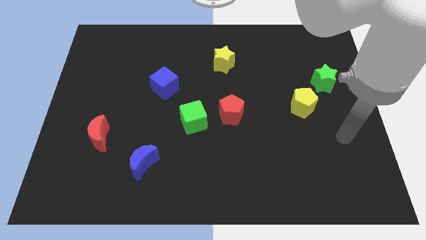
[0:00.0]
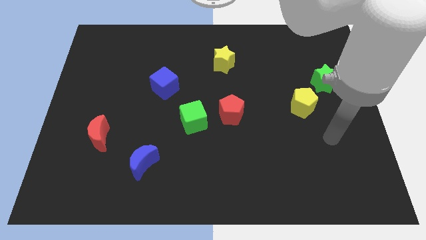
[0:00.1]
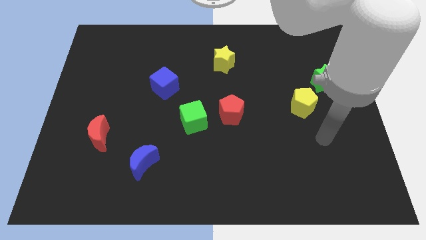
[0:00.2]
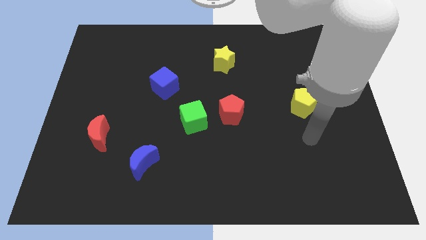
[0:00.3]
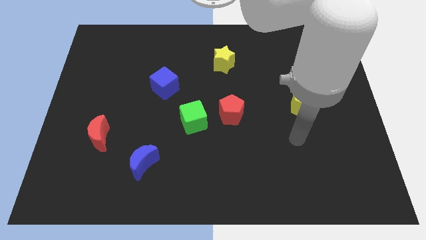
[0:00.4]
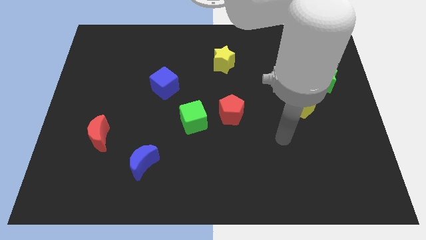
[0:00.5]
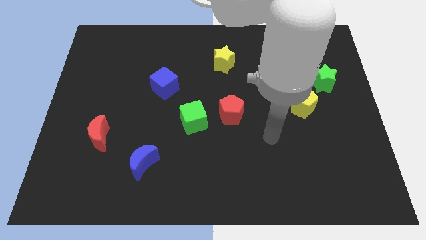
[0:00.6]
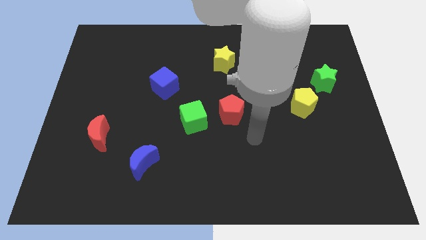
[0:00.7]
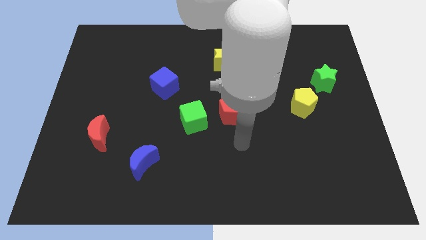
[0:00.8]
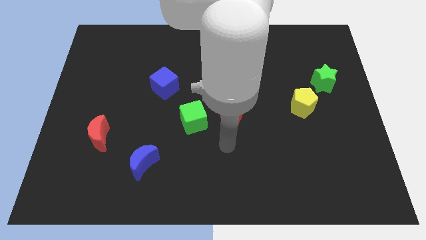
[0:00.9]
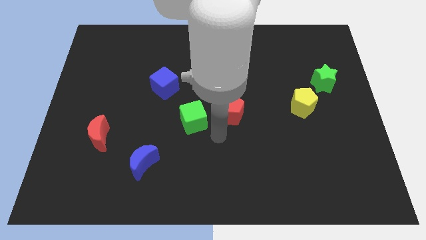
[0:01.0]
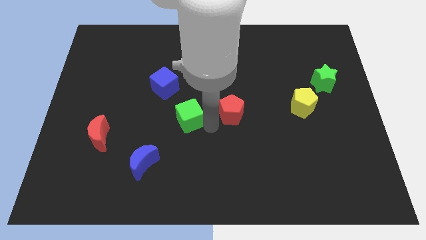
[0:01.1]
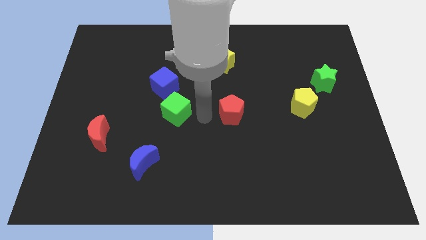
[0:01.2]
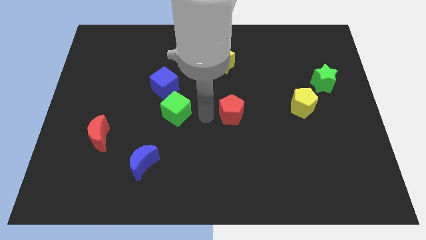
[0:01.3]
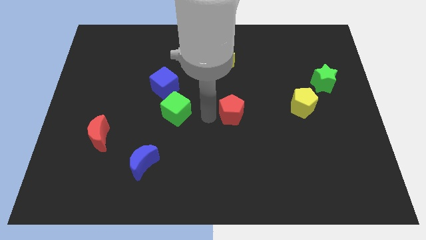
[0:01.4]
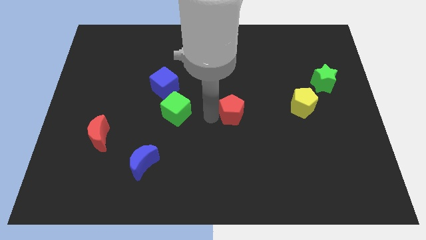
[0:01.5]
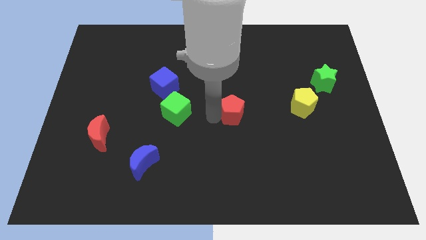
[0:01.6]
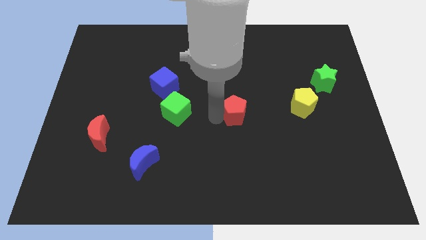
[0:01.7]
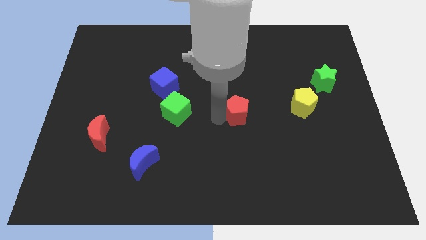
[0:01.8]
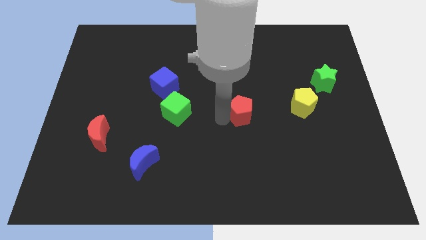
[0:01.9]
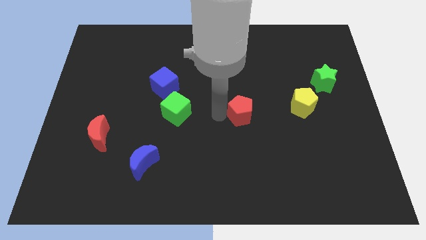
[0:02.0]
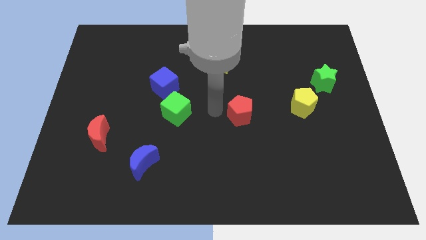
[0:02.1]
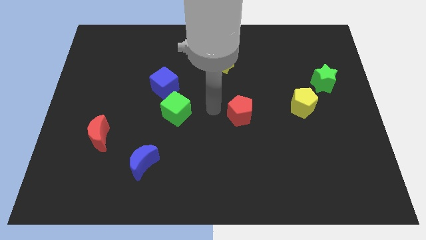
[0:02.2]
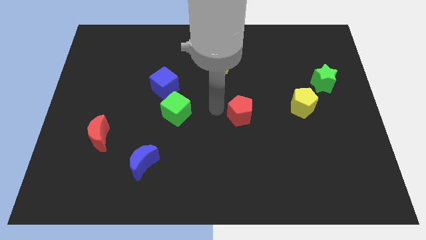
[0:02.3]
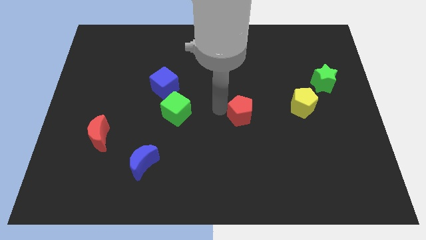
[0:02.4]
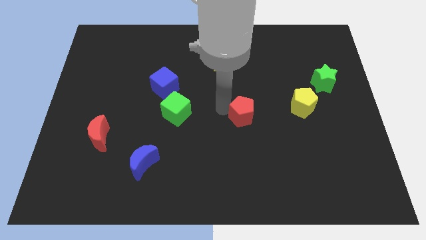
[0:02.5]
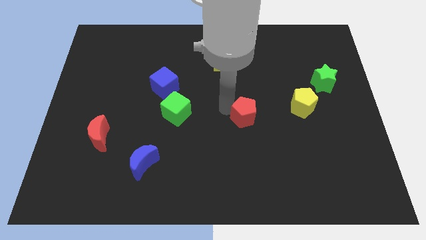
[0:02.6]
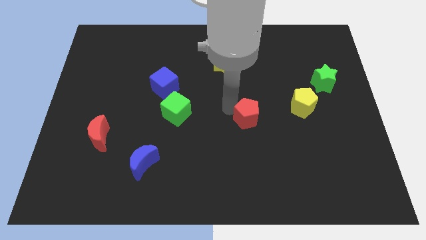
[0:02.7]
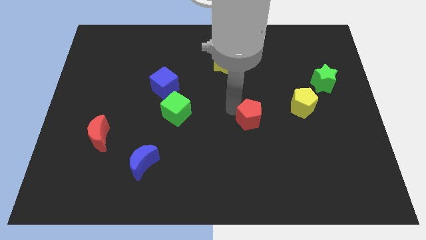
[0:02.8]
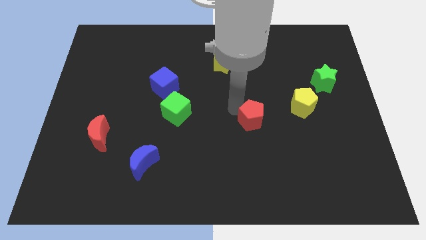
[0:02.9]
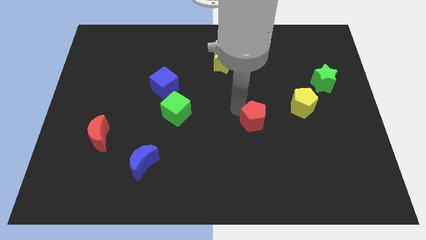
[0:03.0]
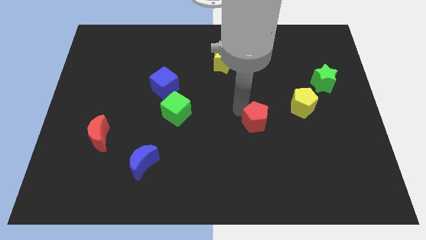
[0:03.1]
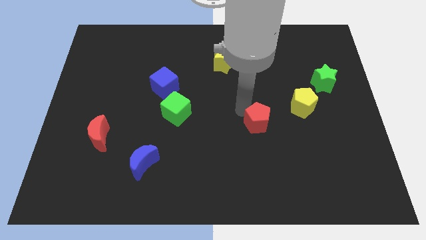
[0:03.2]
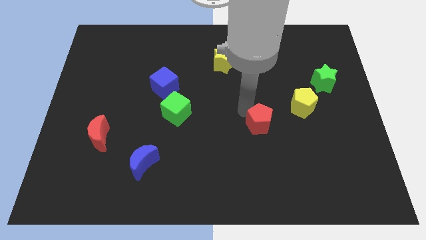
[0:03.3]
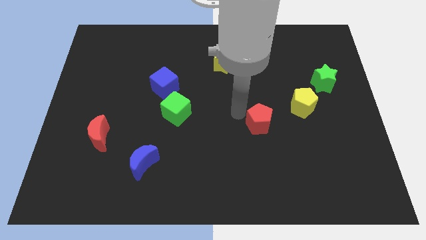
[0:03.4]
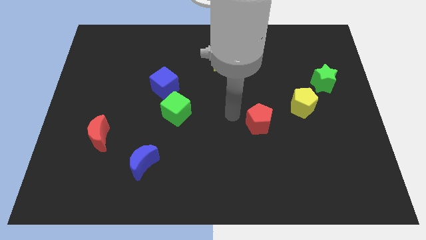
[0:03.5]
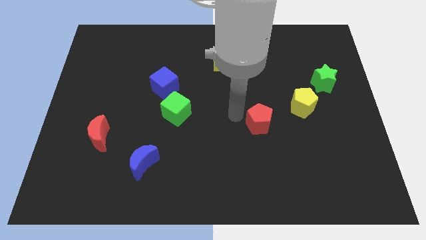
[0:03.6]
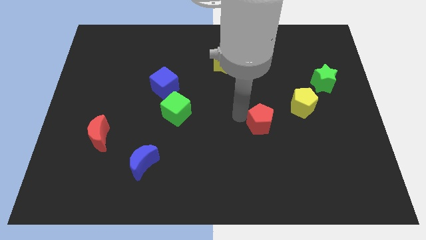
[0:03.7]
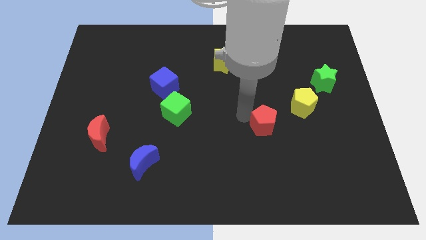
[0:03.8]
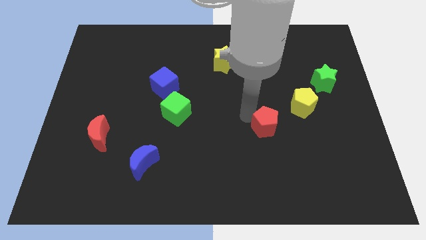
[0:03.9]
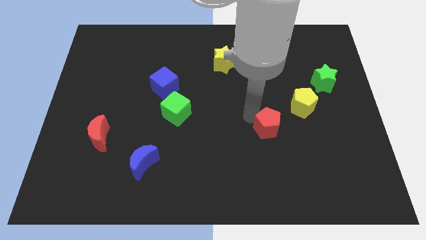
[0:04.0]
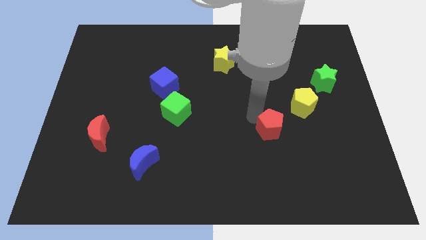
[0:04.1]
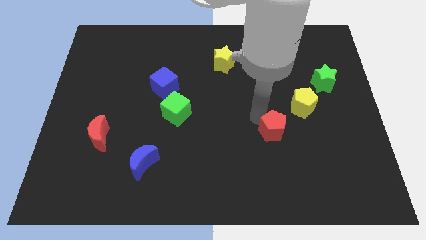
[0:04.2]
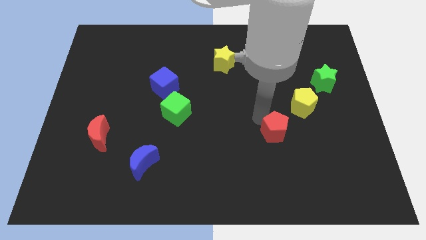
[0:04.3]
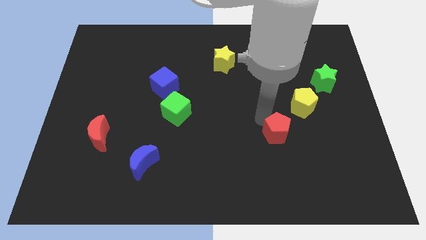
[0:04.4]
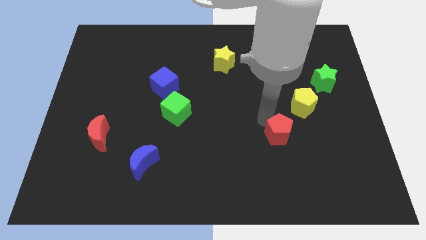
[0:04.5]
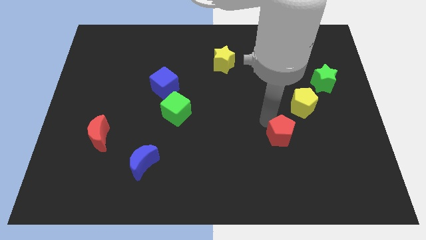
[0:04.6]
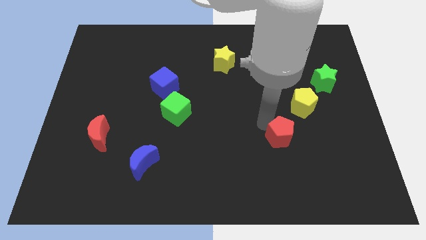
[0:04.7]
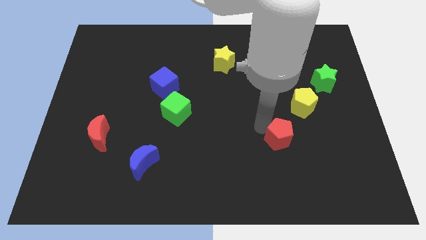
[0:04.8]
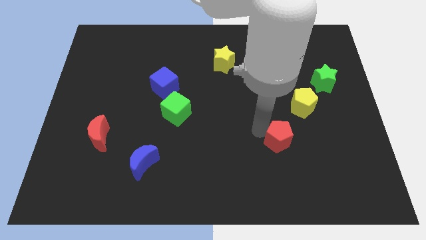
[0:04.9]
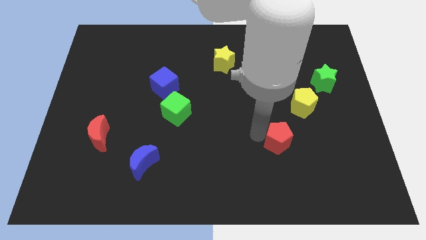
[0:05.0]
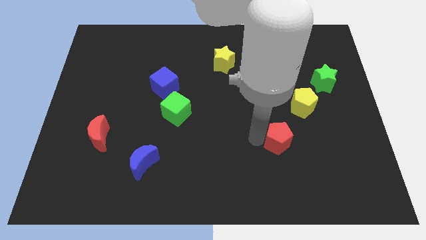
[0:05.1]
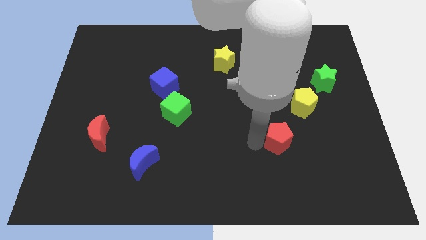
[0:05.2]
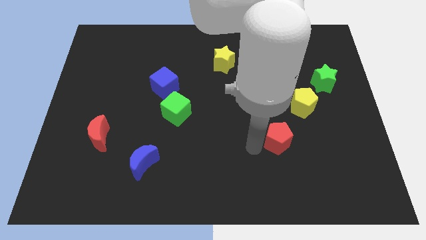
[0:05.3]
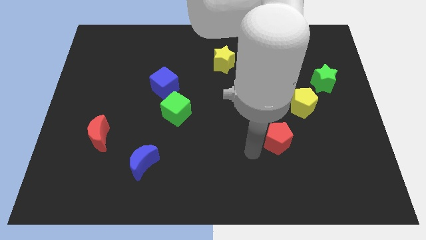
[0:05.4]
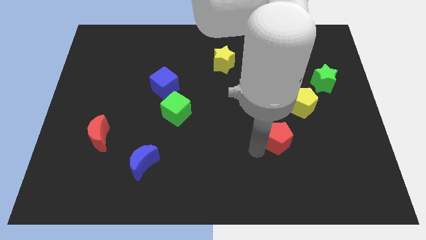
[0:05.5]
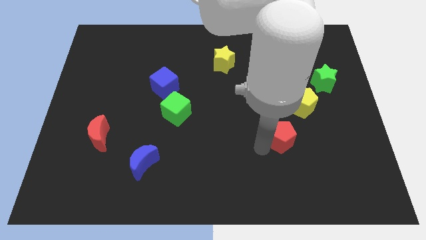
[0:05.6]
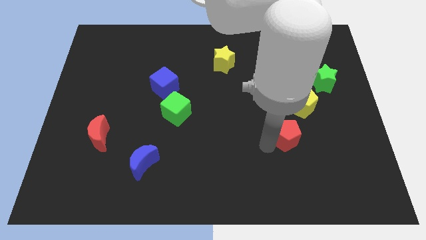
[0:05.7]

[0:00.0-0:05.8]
put the red pentagon below the yellow pentagon
